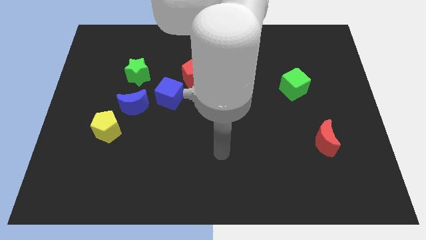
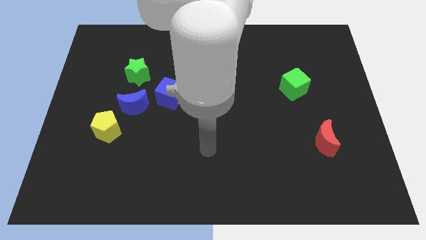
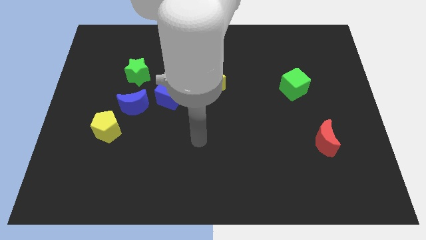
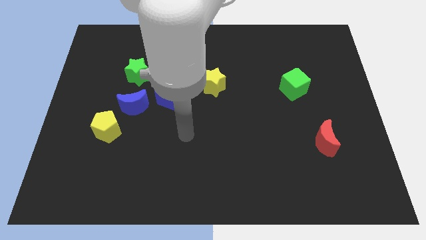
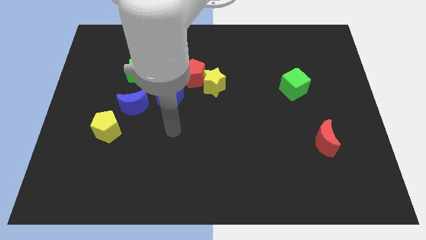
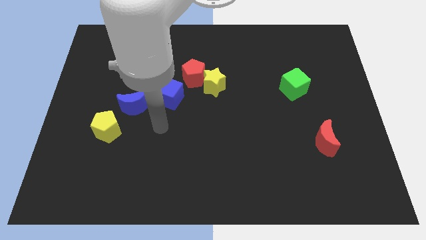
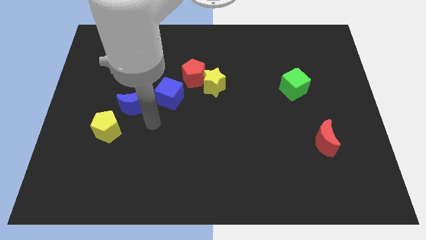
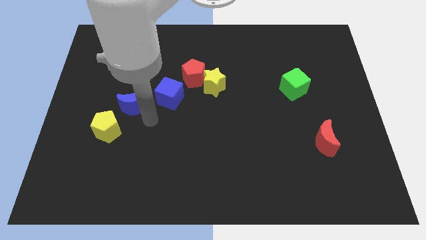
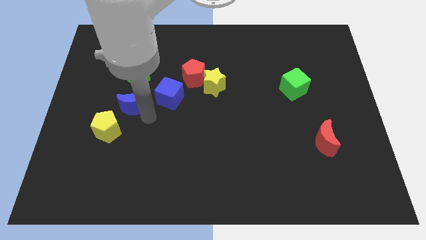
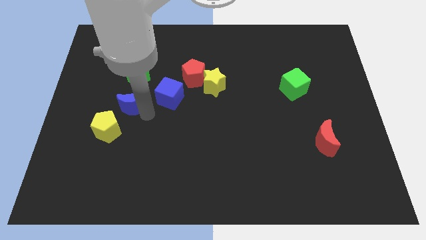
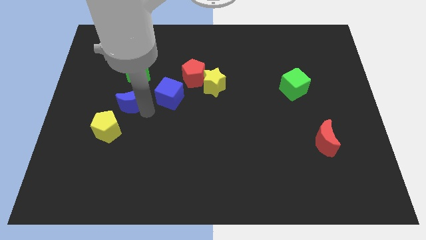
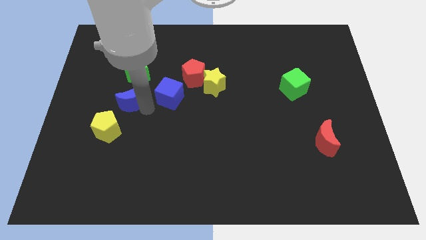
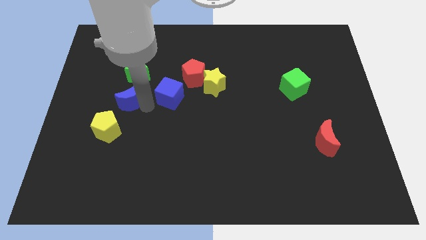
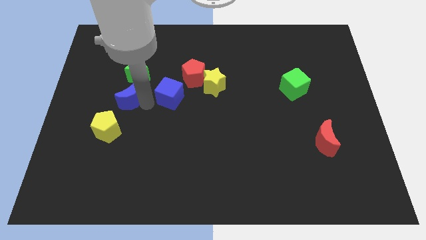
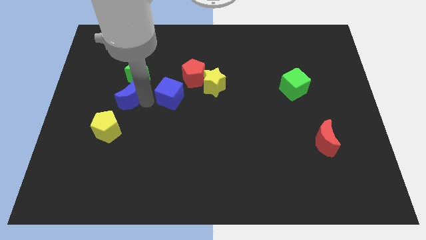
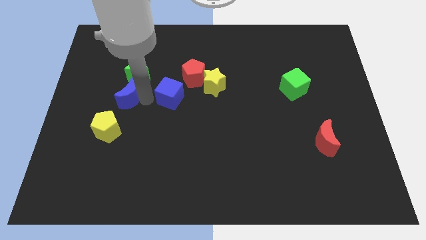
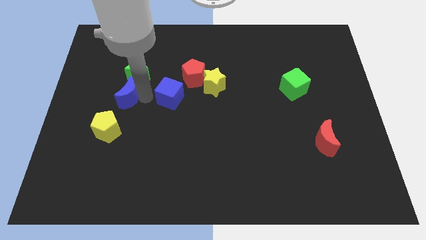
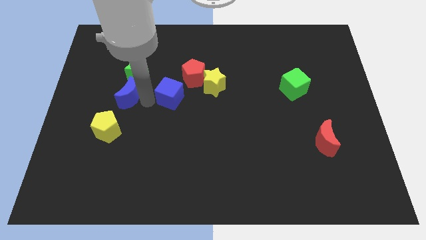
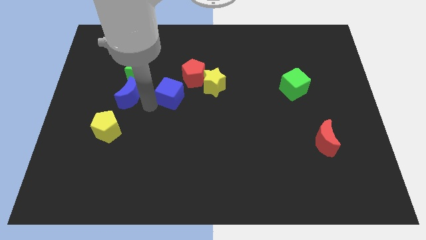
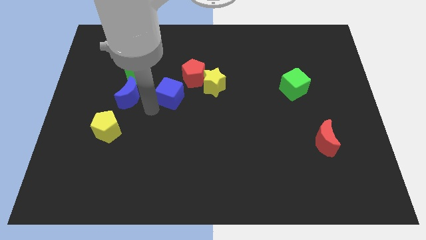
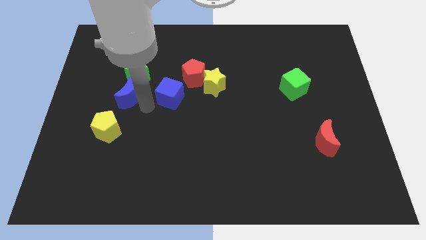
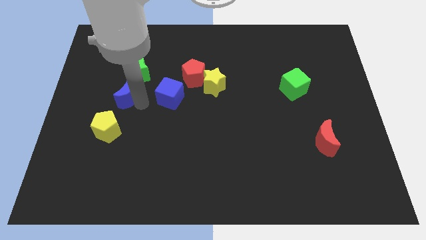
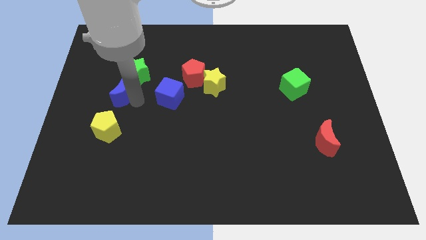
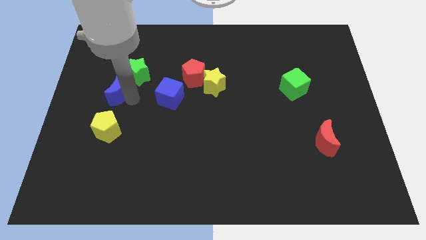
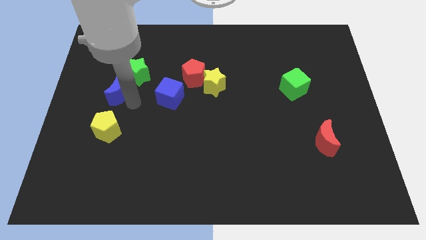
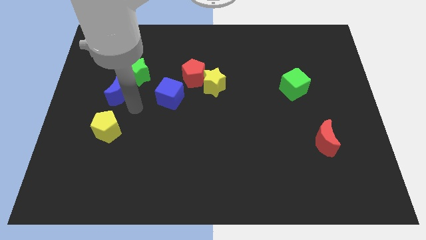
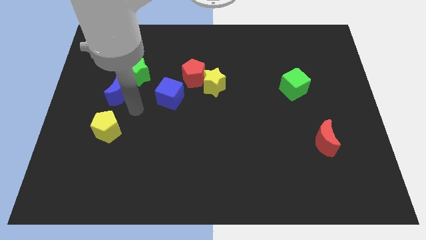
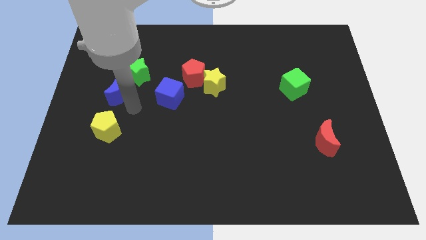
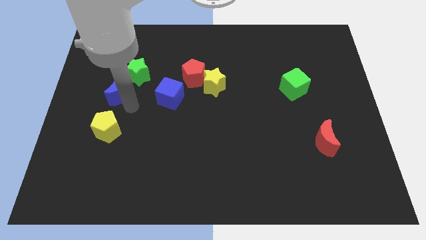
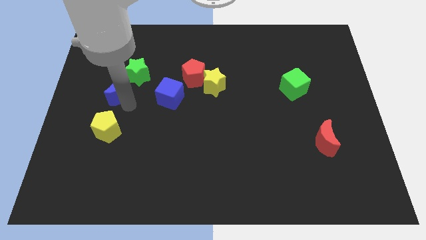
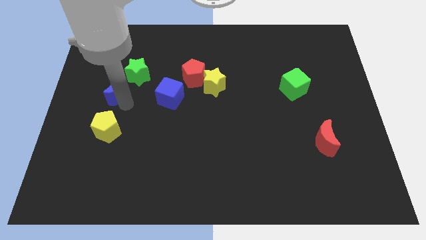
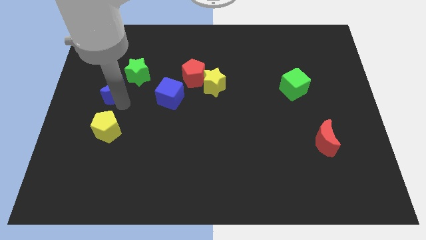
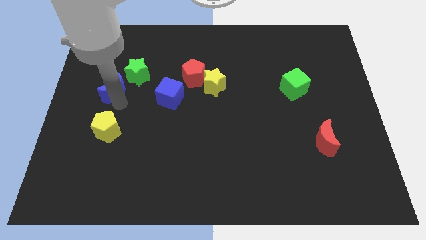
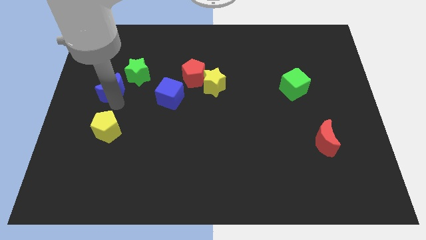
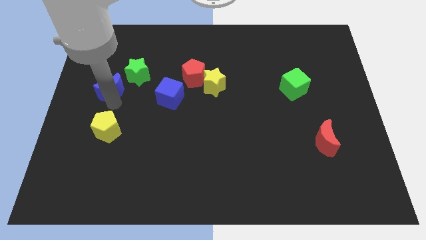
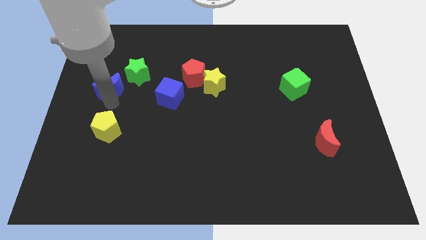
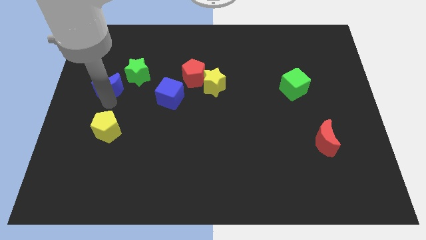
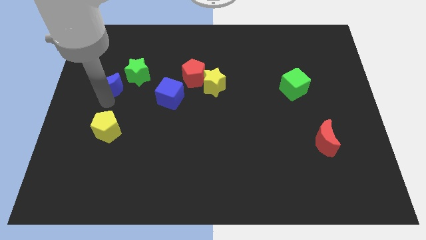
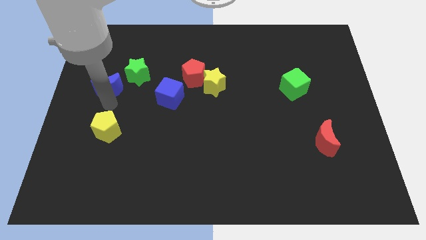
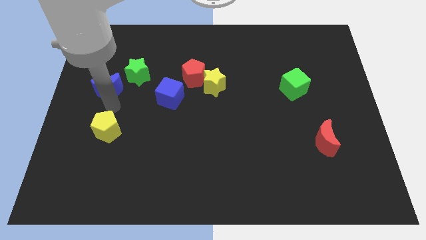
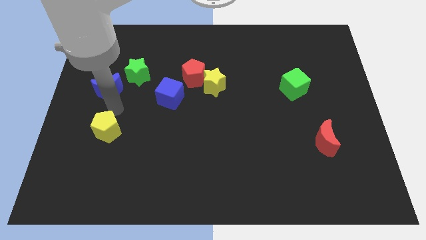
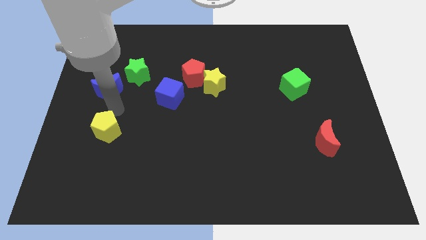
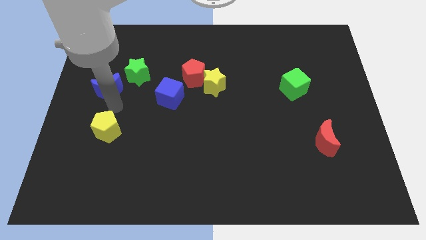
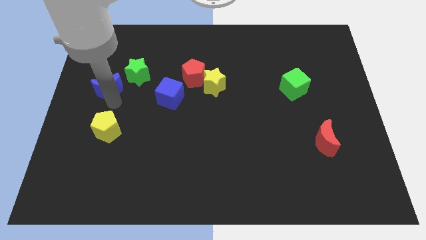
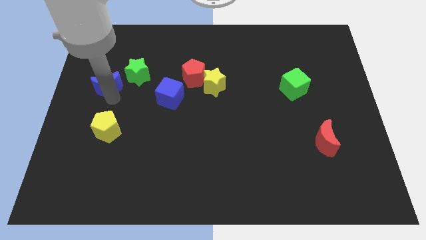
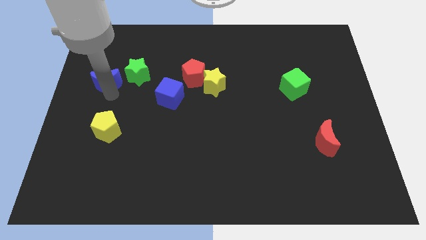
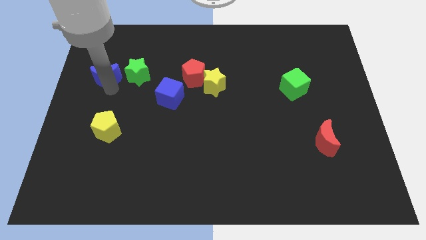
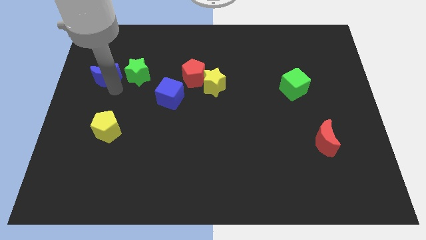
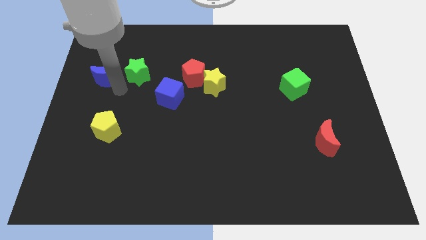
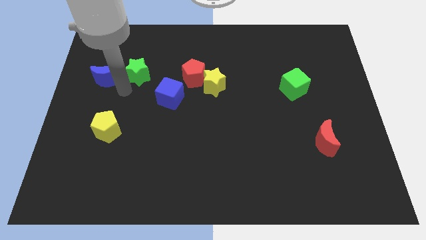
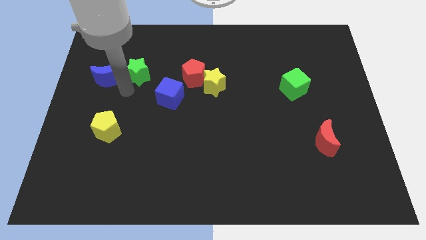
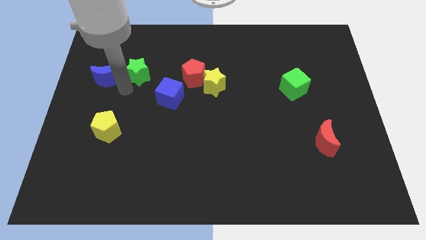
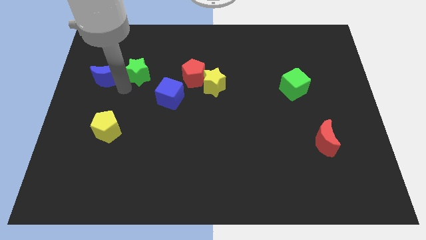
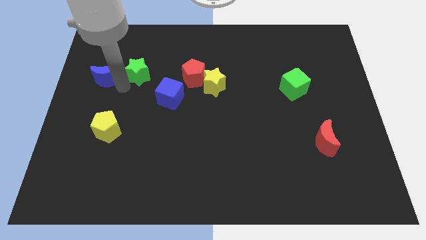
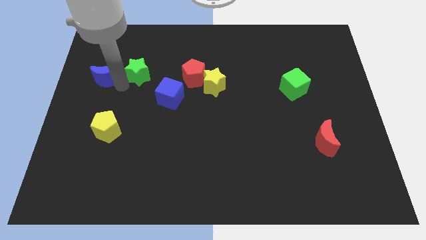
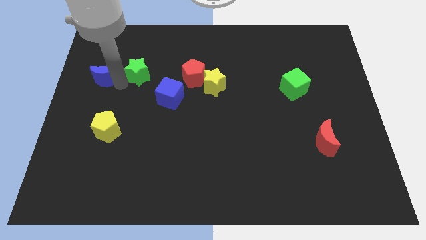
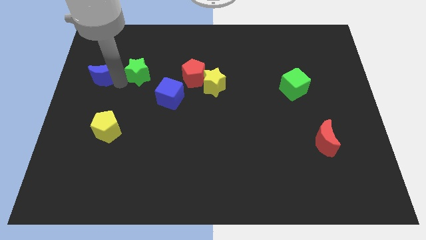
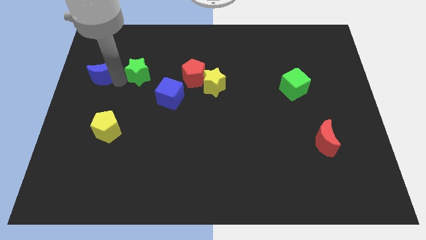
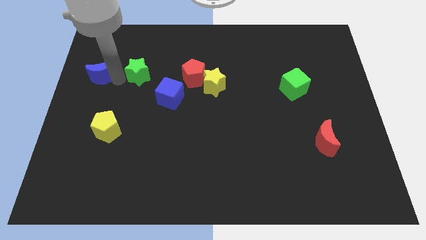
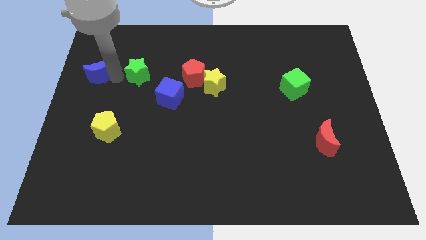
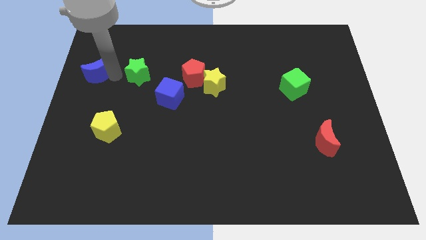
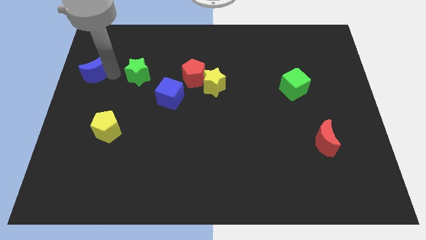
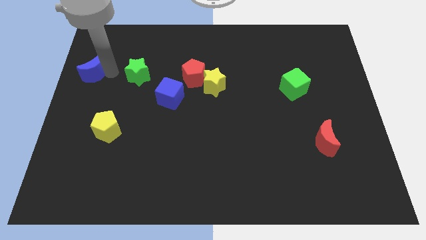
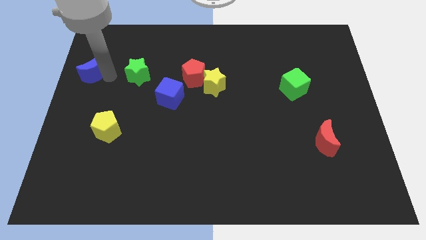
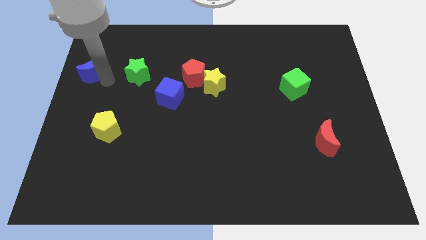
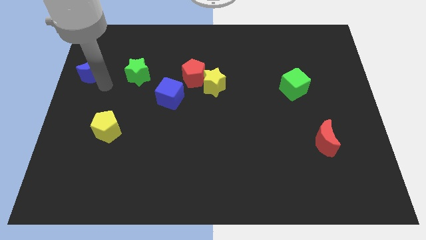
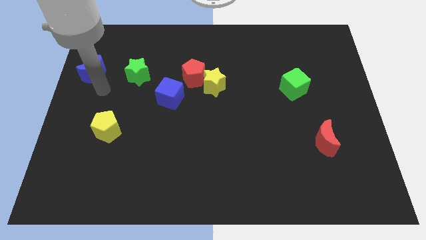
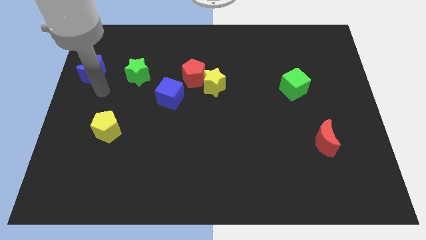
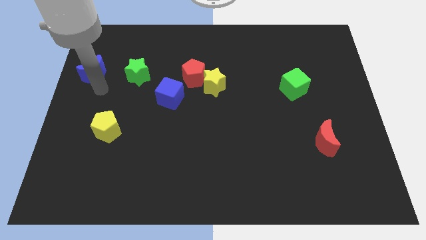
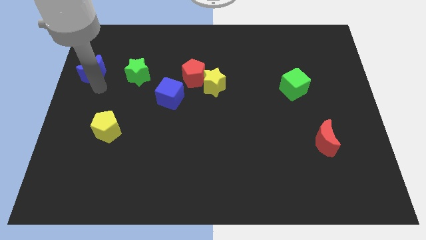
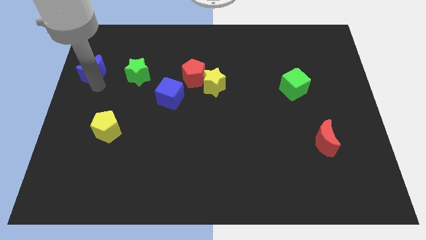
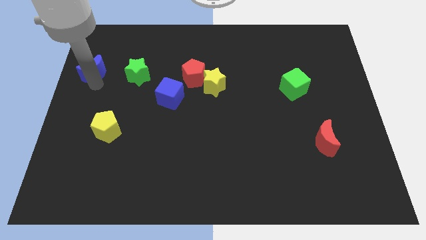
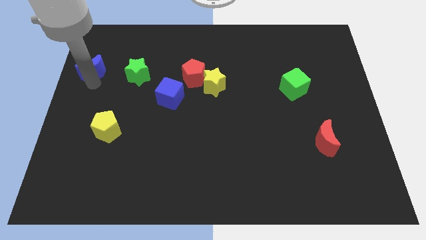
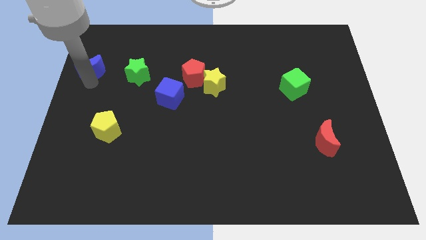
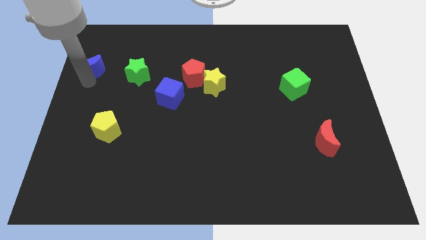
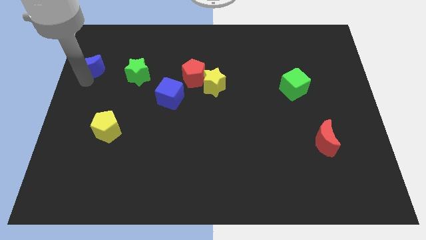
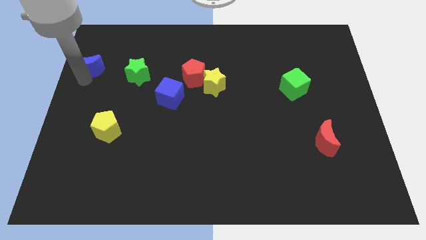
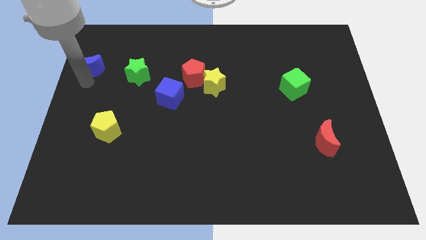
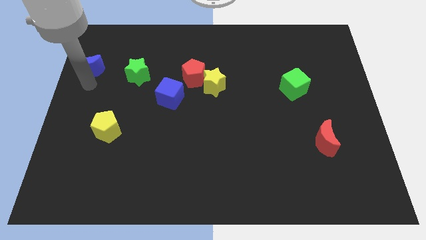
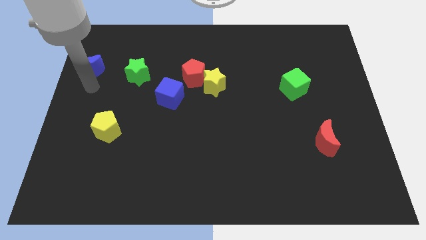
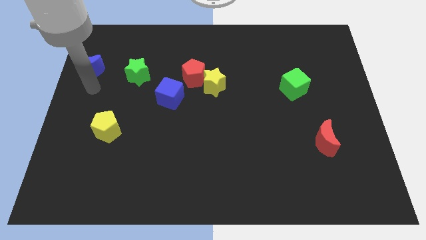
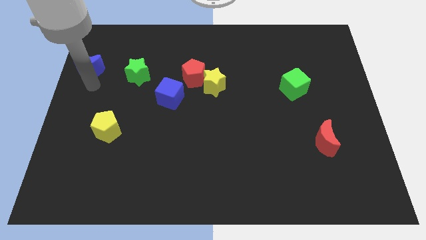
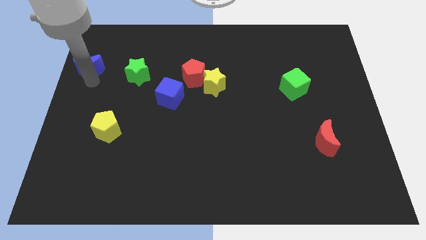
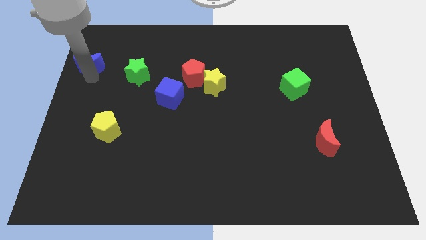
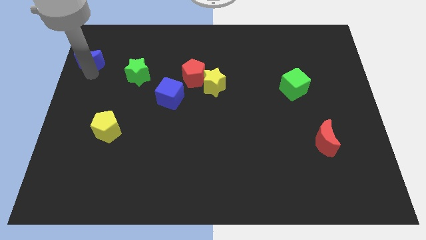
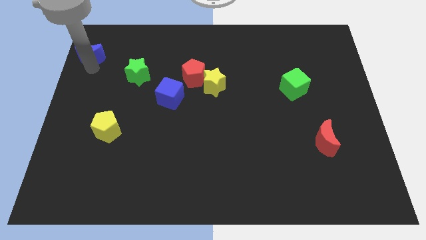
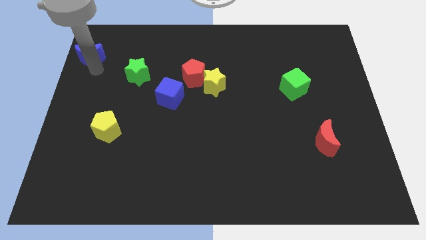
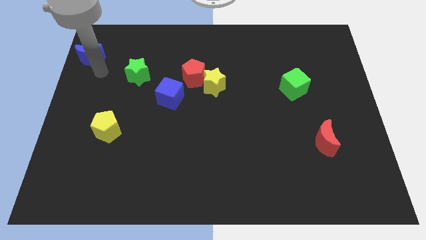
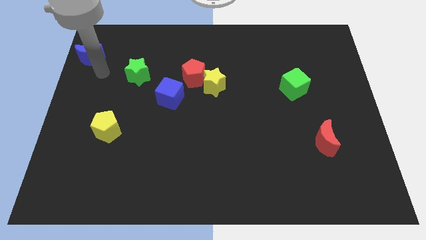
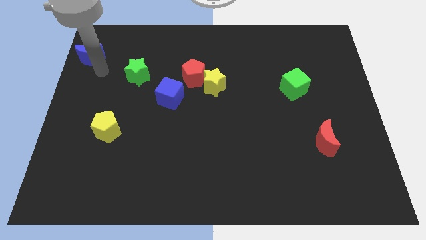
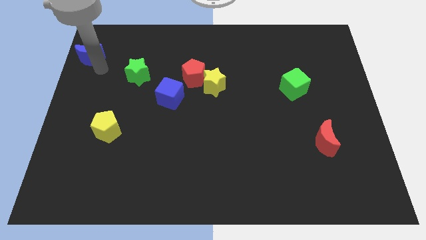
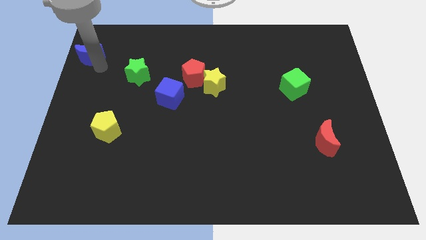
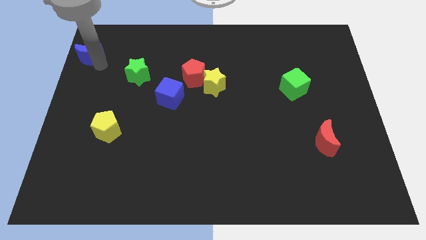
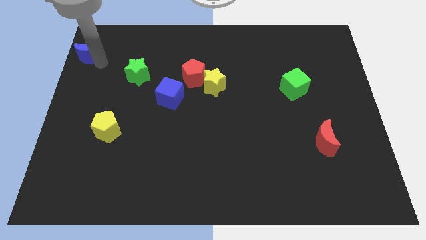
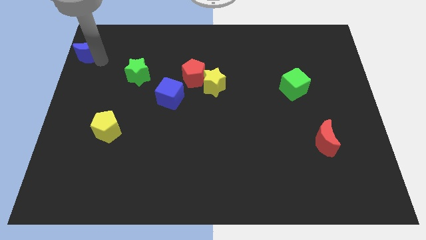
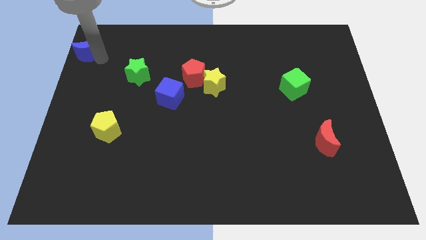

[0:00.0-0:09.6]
slide the blue moon to the top left
